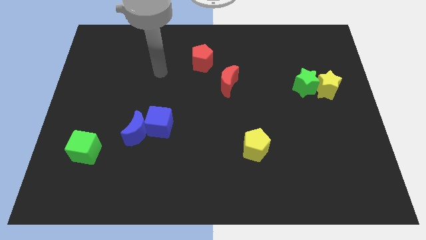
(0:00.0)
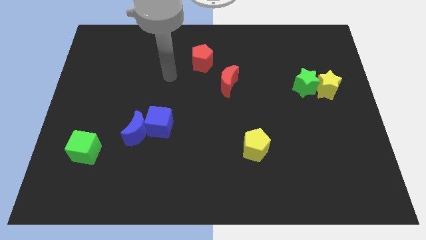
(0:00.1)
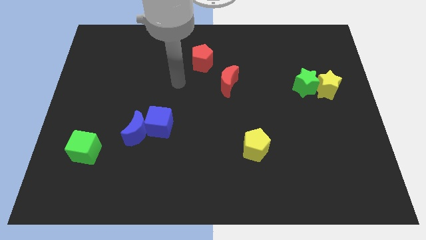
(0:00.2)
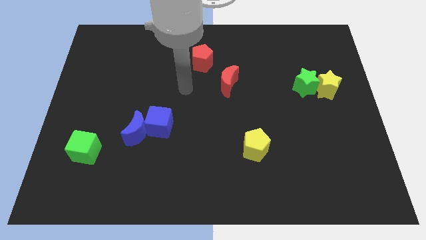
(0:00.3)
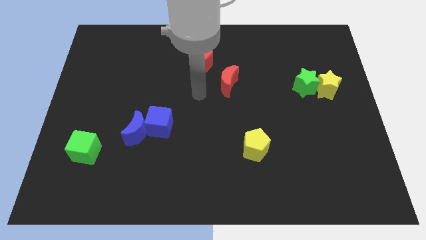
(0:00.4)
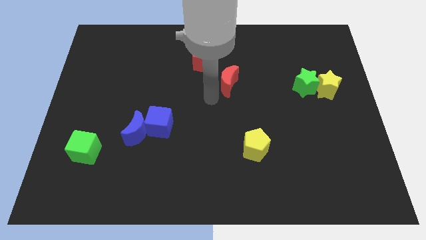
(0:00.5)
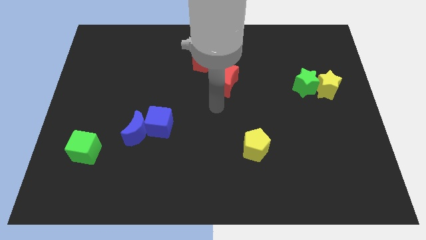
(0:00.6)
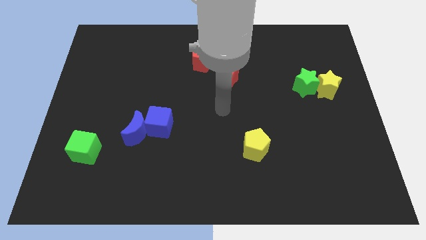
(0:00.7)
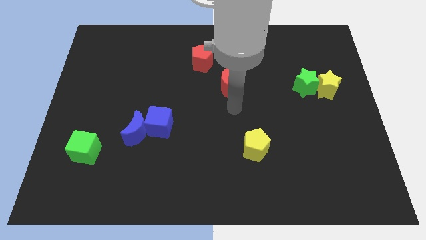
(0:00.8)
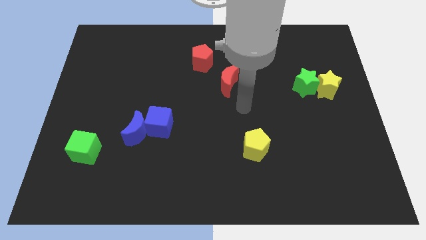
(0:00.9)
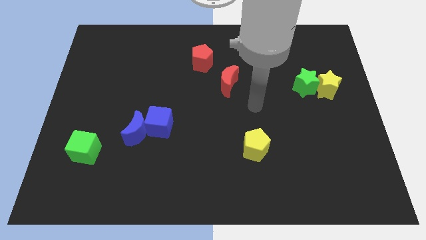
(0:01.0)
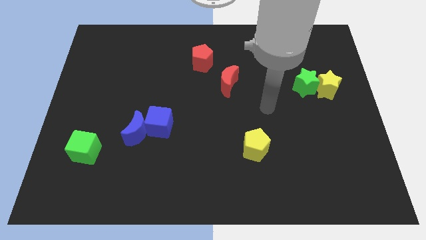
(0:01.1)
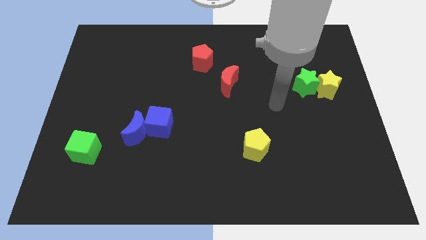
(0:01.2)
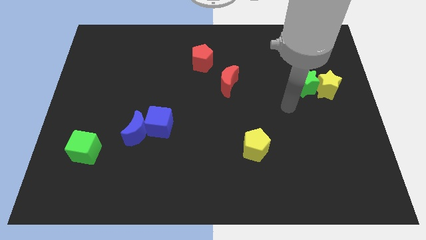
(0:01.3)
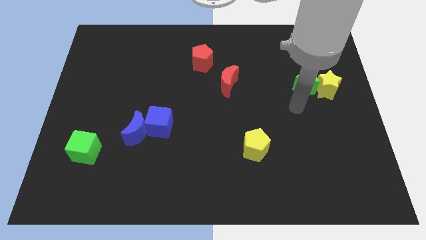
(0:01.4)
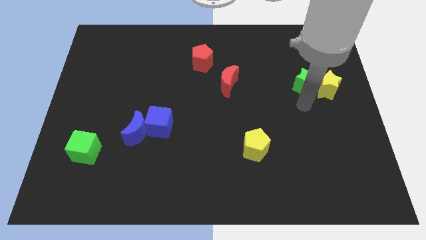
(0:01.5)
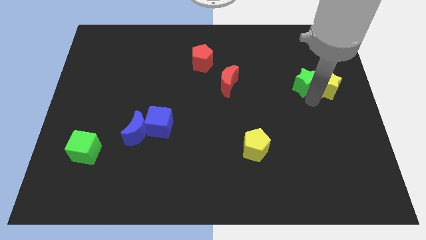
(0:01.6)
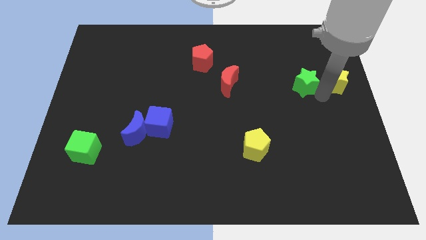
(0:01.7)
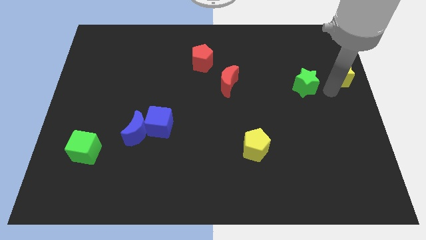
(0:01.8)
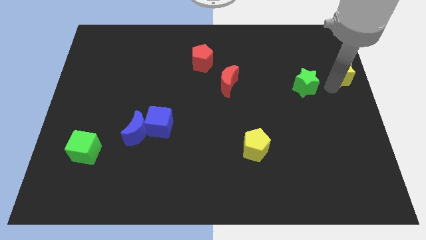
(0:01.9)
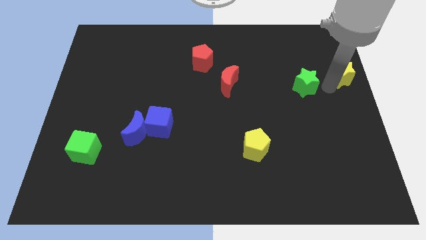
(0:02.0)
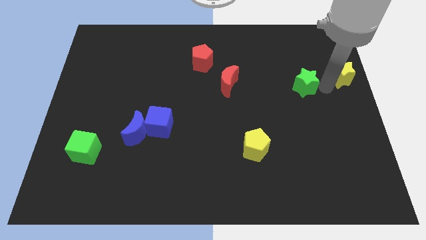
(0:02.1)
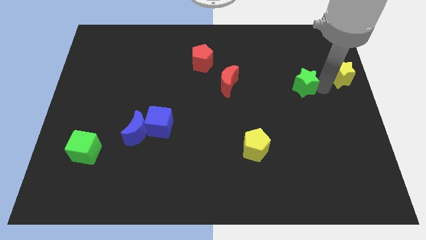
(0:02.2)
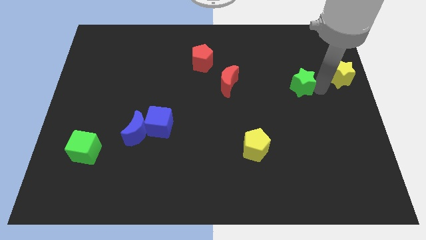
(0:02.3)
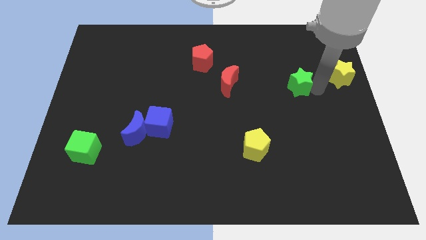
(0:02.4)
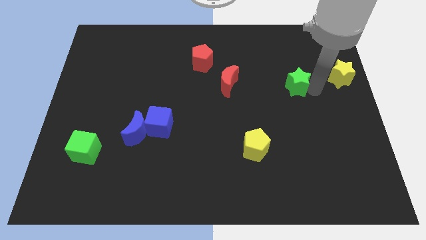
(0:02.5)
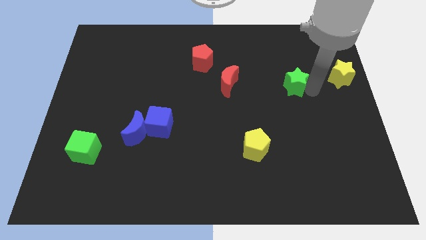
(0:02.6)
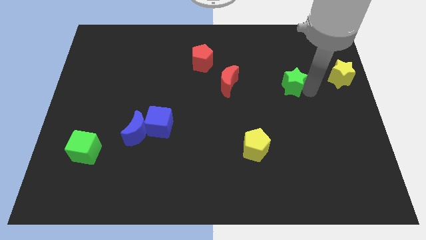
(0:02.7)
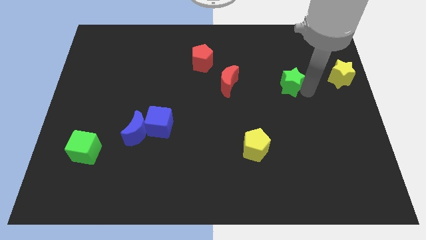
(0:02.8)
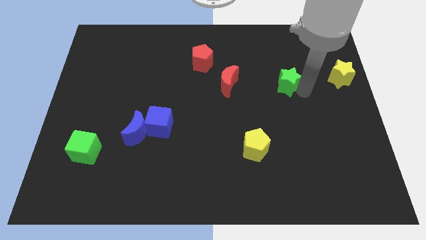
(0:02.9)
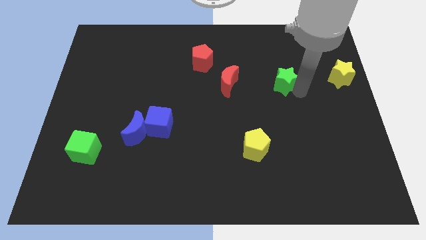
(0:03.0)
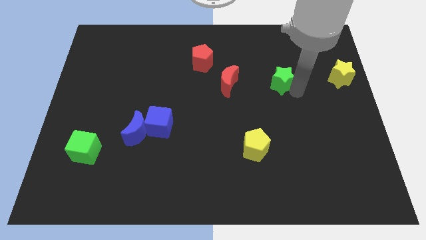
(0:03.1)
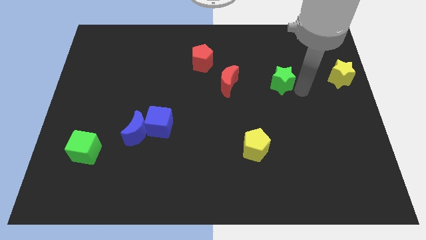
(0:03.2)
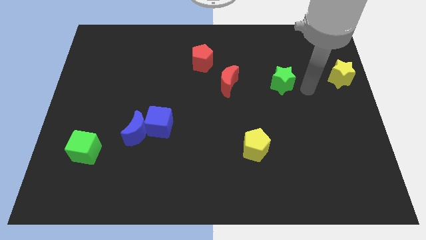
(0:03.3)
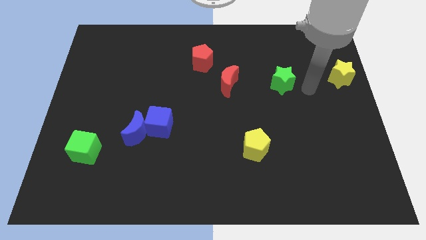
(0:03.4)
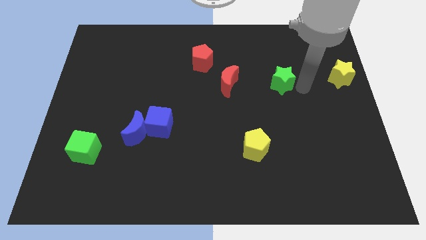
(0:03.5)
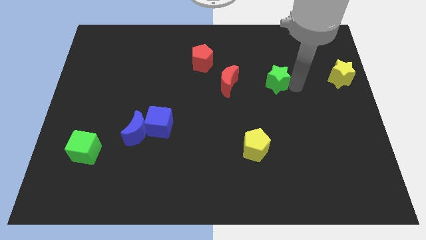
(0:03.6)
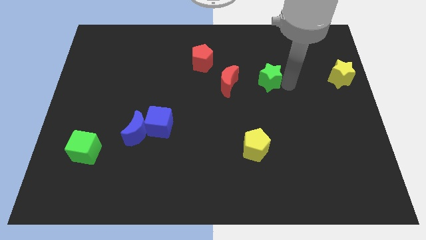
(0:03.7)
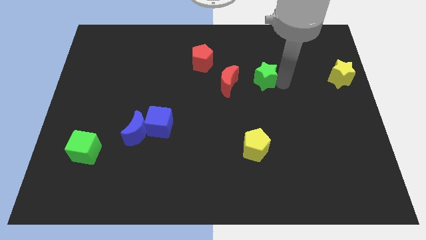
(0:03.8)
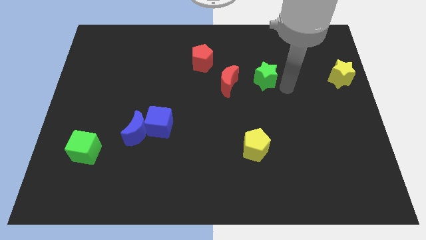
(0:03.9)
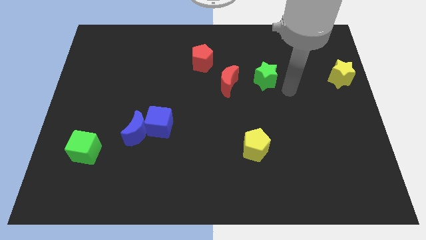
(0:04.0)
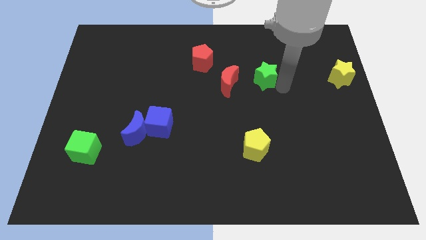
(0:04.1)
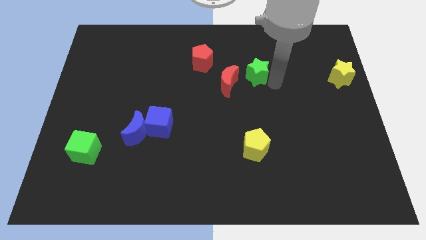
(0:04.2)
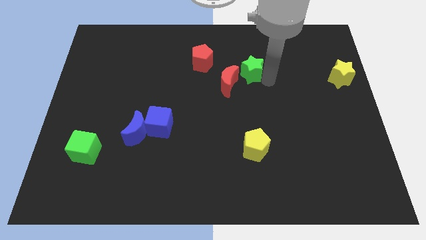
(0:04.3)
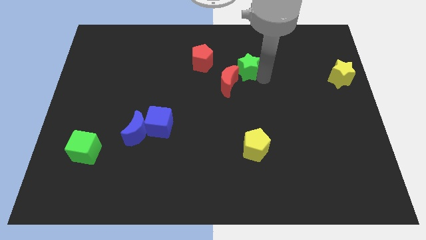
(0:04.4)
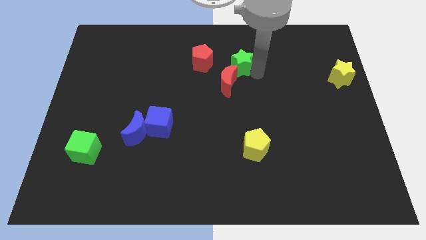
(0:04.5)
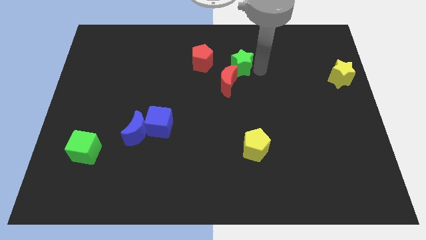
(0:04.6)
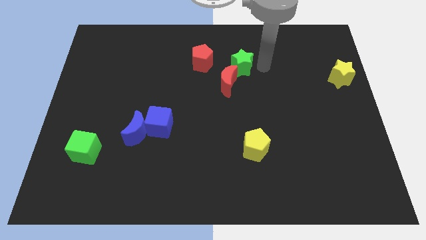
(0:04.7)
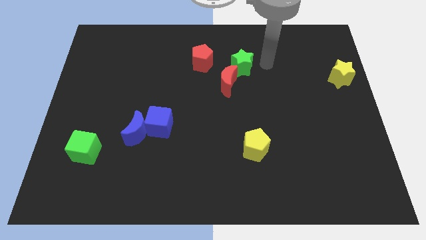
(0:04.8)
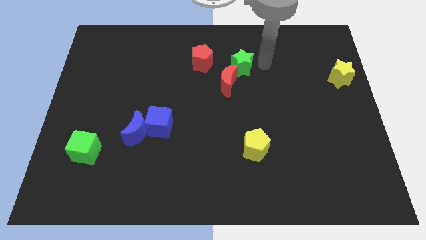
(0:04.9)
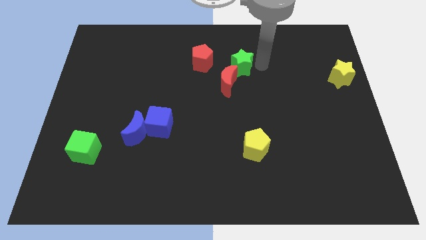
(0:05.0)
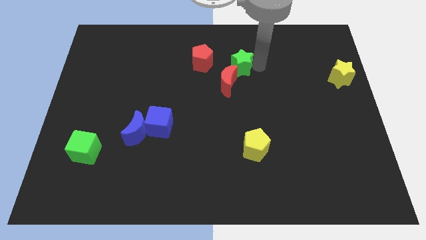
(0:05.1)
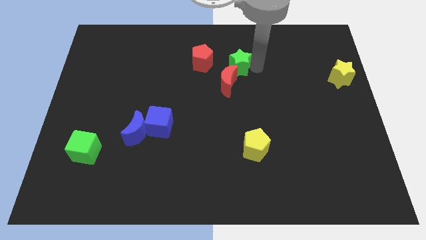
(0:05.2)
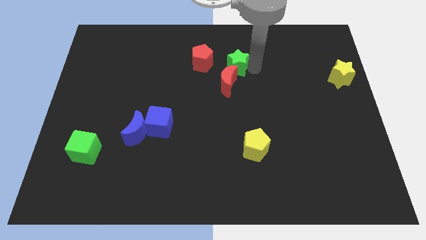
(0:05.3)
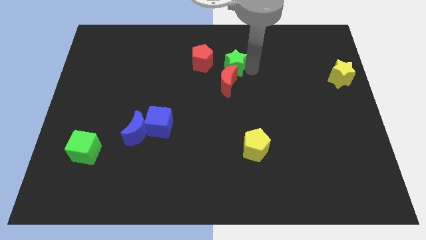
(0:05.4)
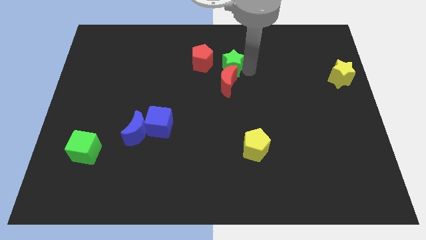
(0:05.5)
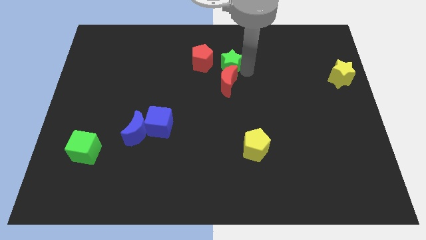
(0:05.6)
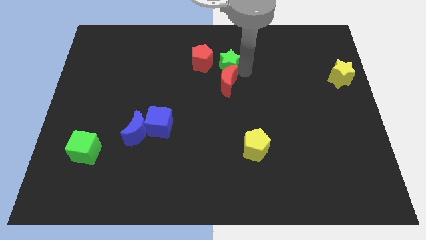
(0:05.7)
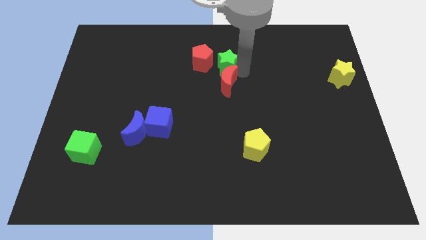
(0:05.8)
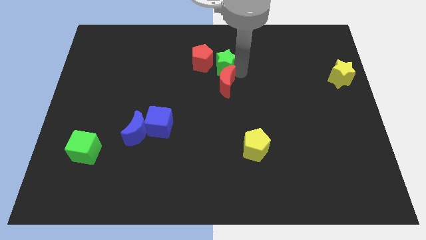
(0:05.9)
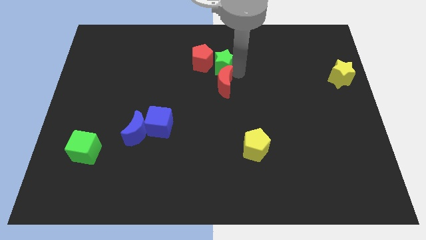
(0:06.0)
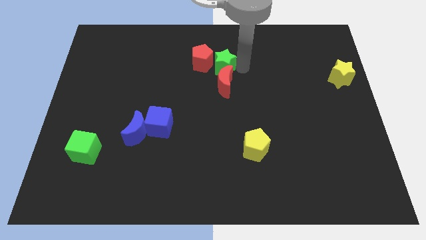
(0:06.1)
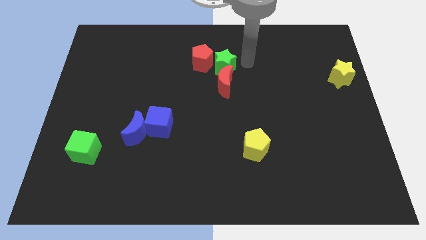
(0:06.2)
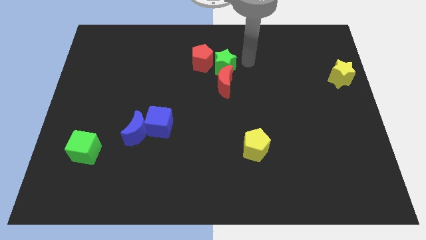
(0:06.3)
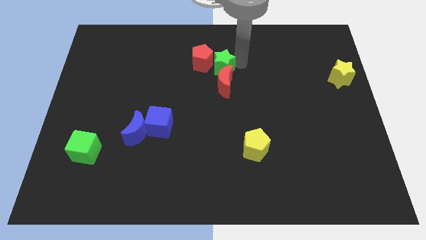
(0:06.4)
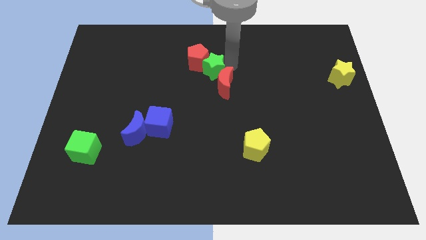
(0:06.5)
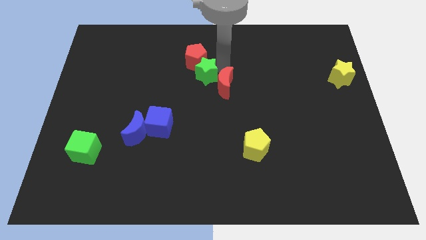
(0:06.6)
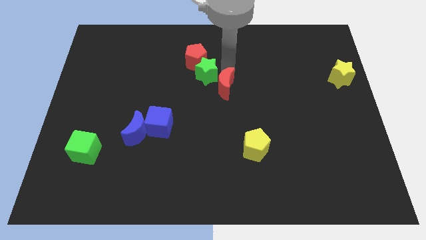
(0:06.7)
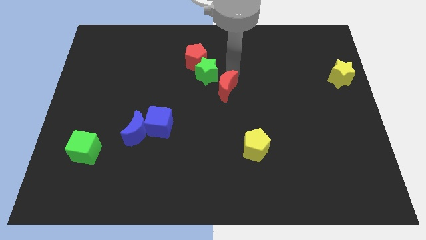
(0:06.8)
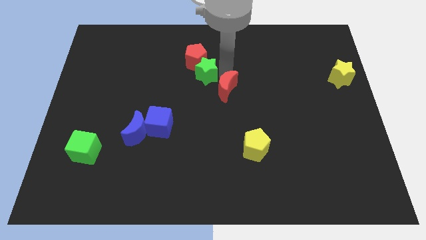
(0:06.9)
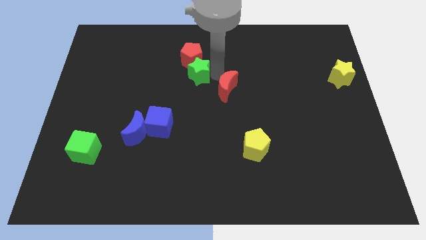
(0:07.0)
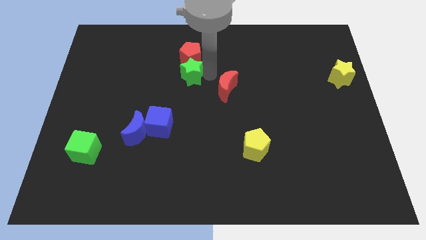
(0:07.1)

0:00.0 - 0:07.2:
slide the green star diagonally down and to the left of the red pentagon

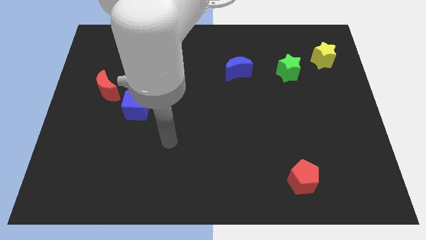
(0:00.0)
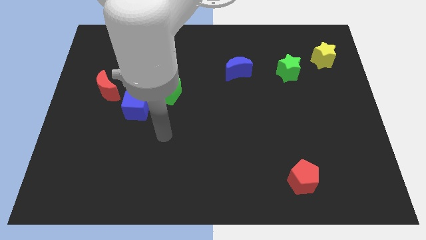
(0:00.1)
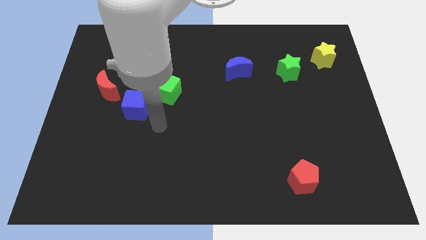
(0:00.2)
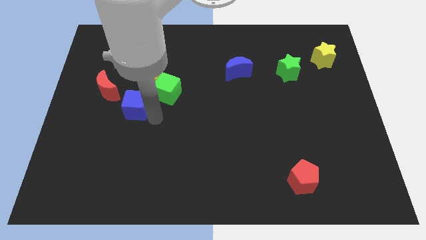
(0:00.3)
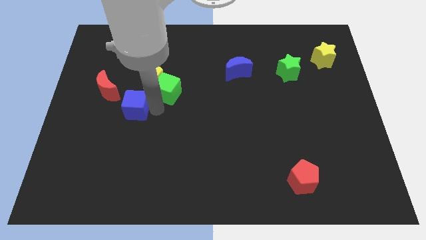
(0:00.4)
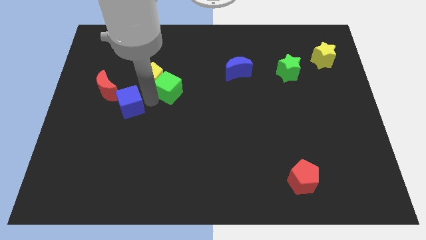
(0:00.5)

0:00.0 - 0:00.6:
put the red moon just left of the blue cube
